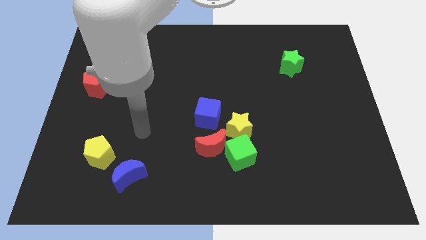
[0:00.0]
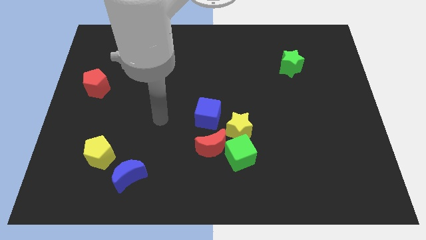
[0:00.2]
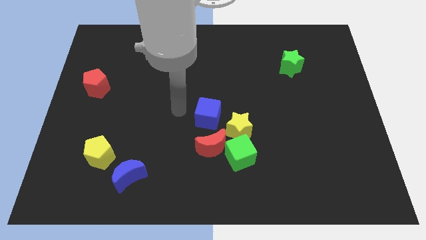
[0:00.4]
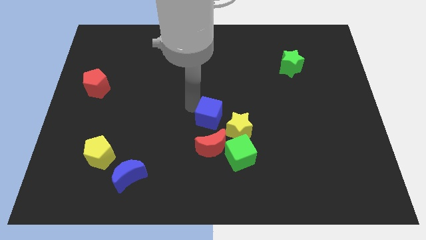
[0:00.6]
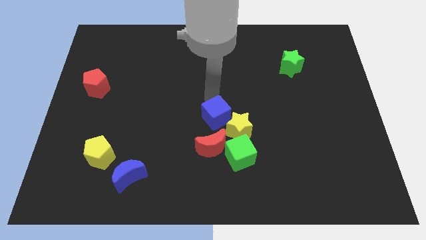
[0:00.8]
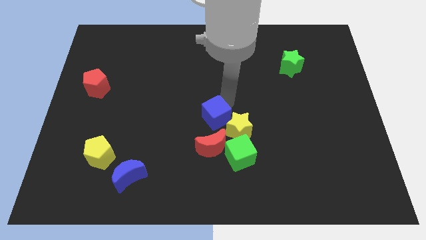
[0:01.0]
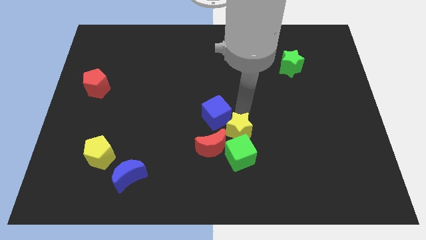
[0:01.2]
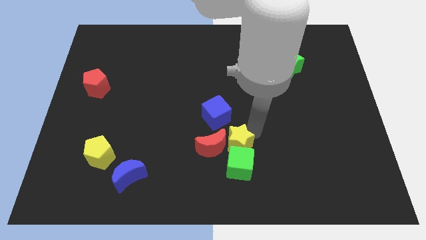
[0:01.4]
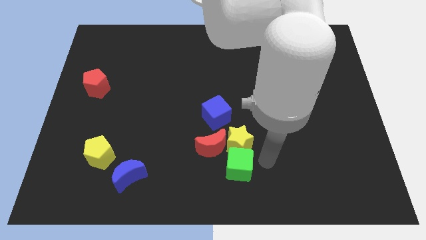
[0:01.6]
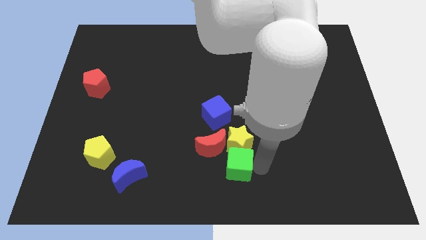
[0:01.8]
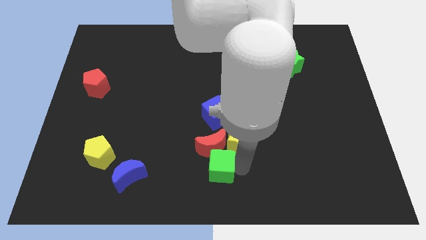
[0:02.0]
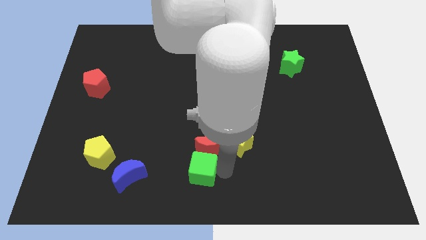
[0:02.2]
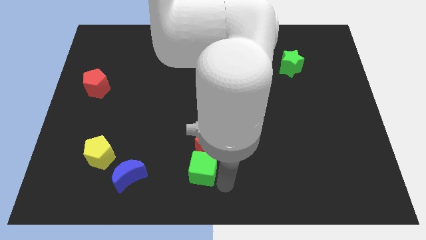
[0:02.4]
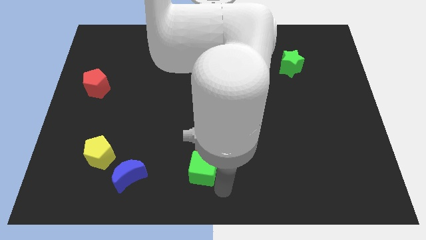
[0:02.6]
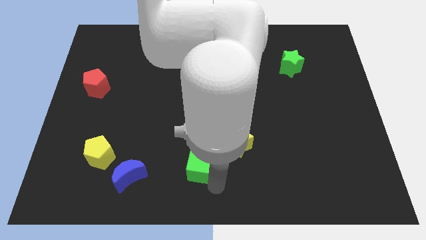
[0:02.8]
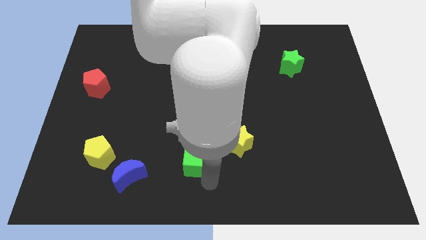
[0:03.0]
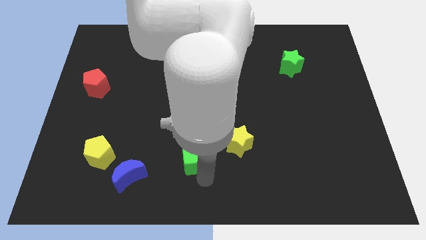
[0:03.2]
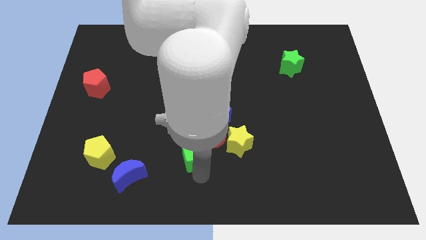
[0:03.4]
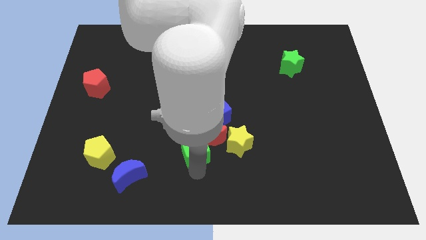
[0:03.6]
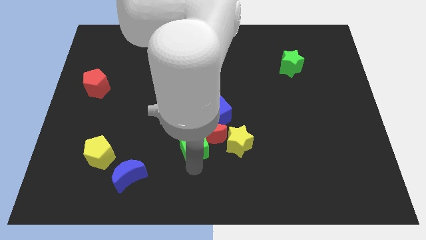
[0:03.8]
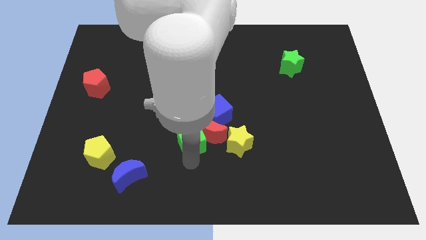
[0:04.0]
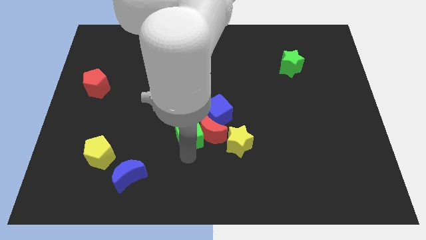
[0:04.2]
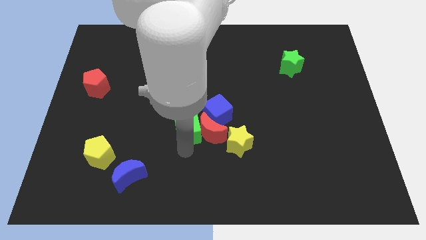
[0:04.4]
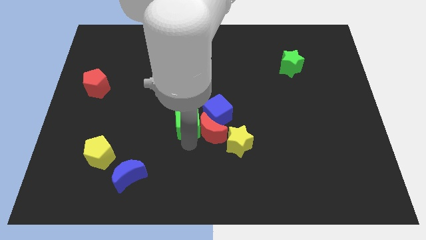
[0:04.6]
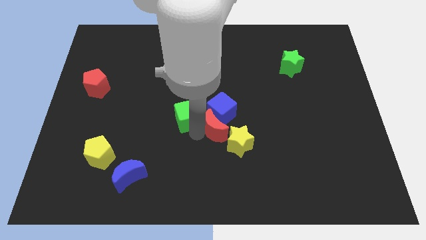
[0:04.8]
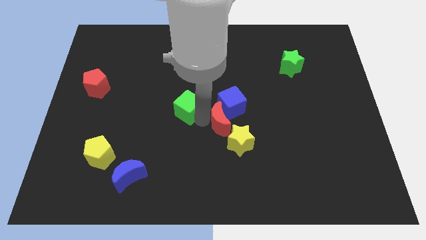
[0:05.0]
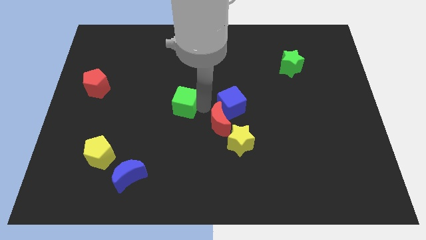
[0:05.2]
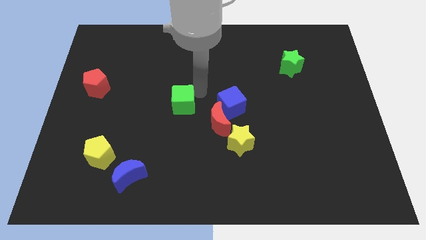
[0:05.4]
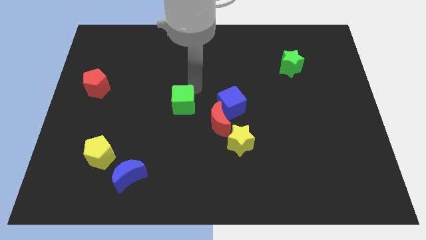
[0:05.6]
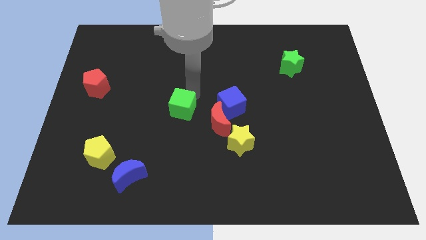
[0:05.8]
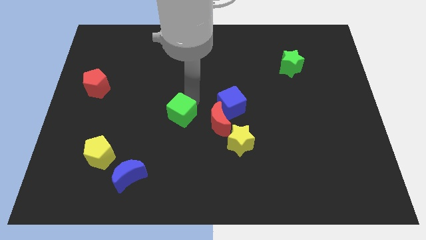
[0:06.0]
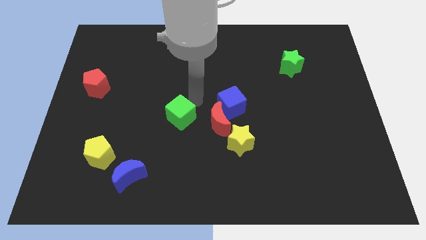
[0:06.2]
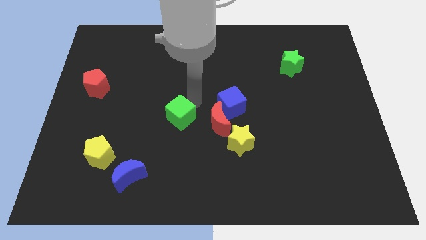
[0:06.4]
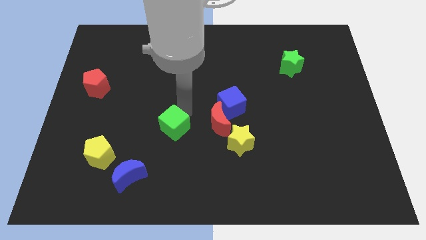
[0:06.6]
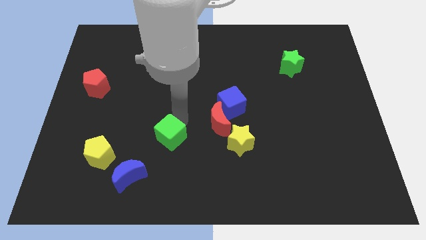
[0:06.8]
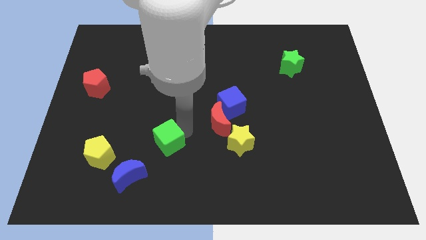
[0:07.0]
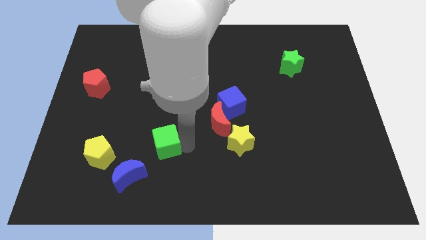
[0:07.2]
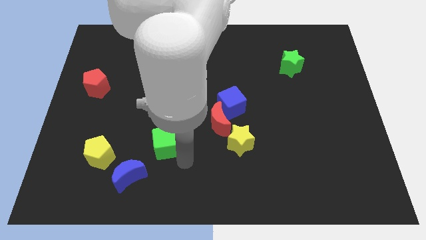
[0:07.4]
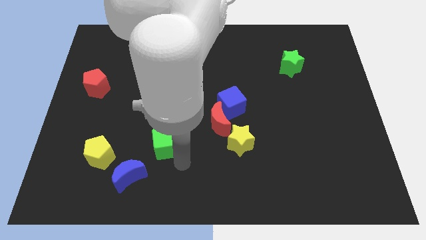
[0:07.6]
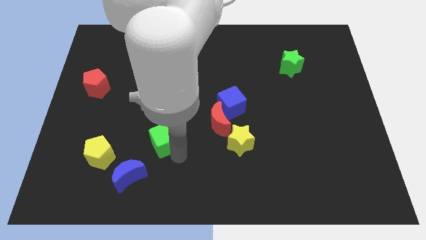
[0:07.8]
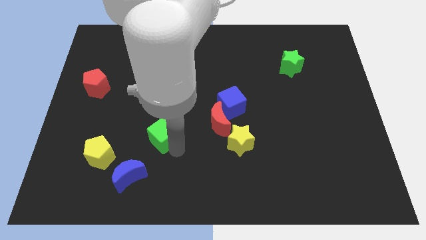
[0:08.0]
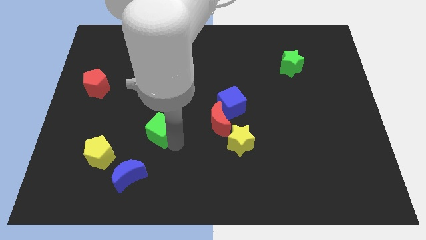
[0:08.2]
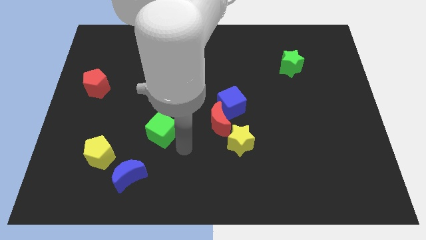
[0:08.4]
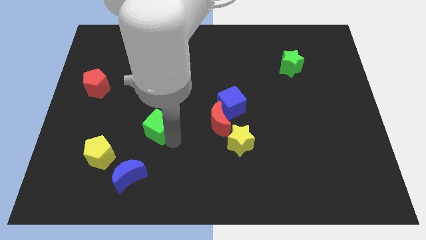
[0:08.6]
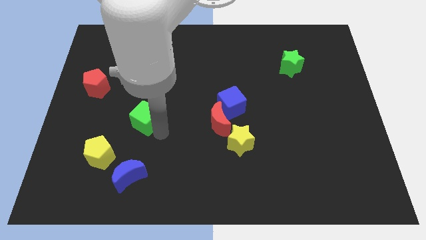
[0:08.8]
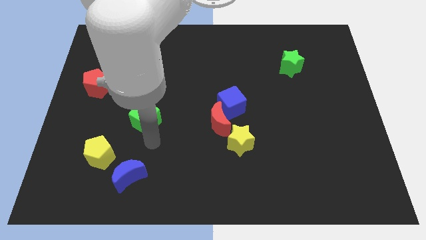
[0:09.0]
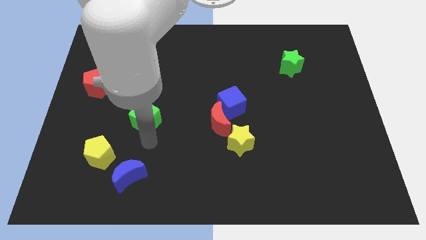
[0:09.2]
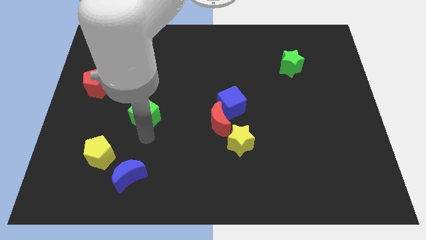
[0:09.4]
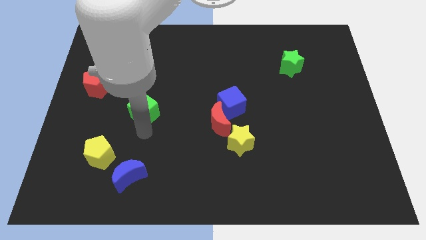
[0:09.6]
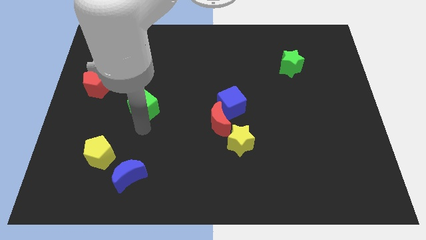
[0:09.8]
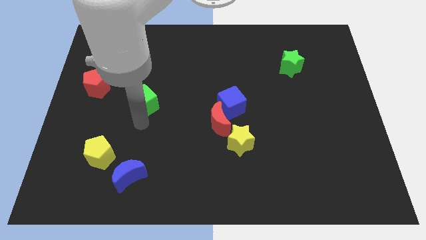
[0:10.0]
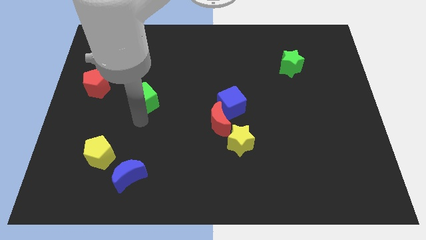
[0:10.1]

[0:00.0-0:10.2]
push the green cube to the right of the red pentagon

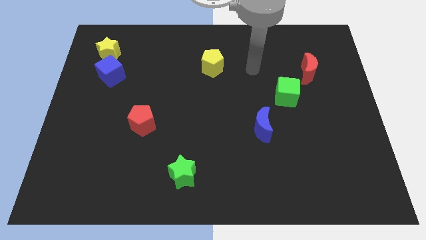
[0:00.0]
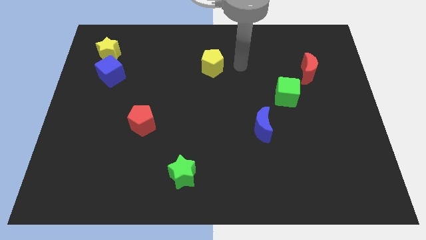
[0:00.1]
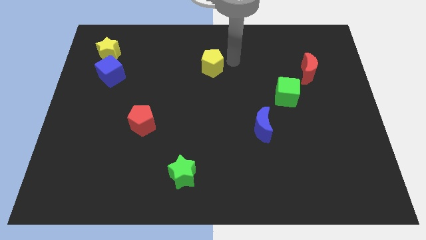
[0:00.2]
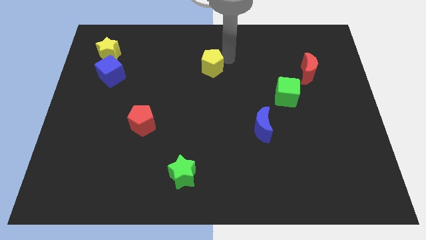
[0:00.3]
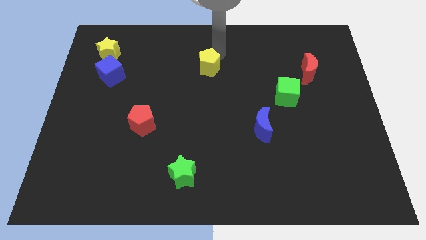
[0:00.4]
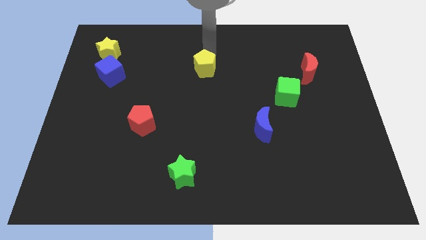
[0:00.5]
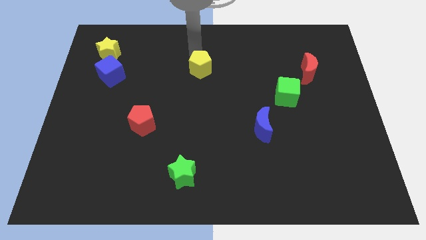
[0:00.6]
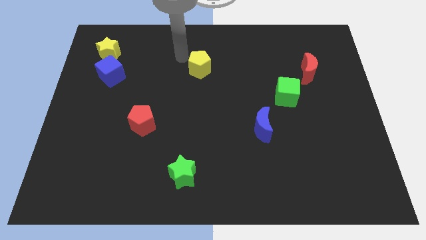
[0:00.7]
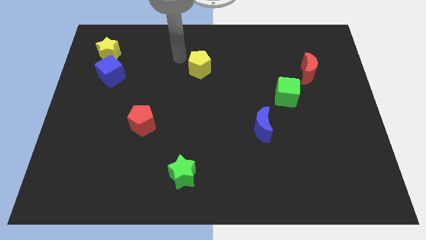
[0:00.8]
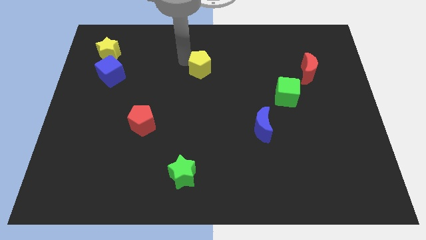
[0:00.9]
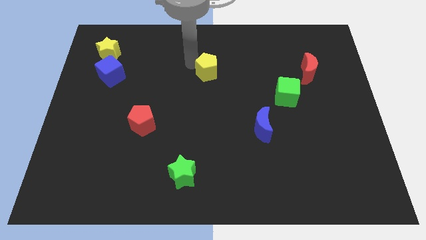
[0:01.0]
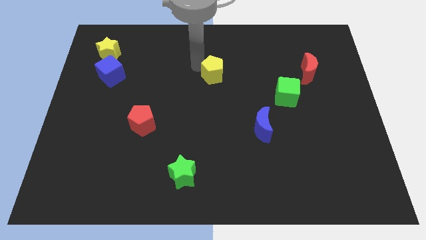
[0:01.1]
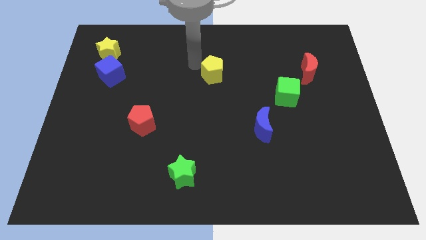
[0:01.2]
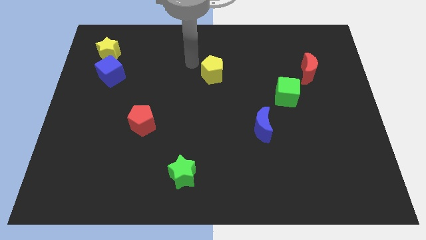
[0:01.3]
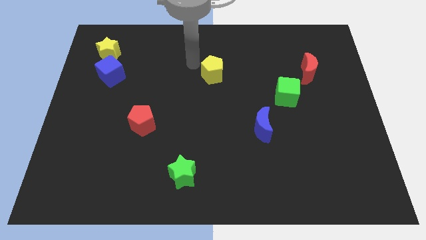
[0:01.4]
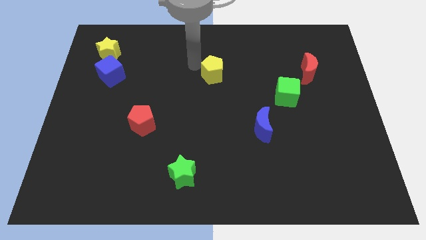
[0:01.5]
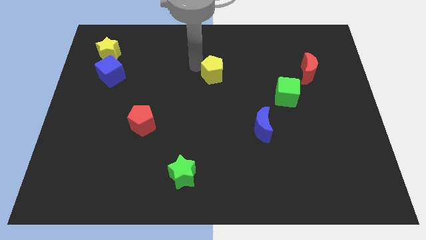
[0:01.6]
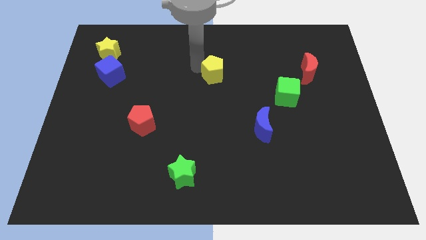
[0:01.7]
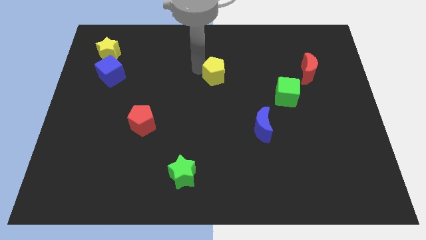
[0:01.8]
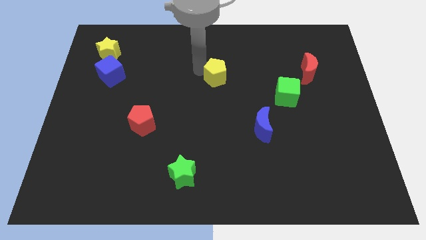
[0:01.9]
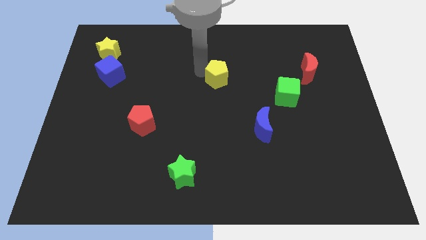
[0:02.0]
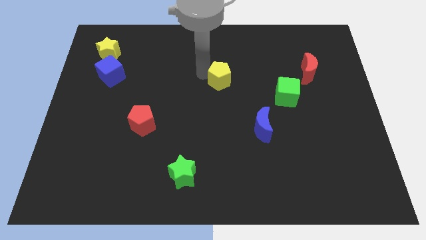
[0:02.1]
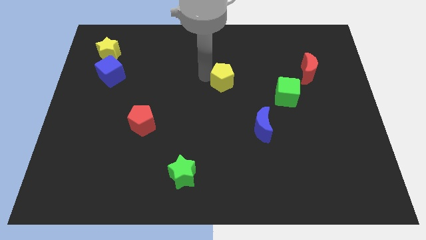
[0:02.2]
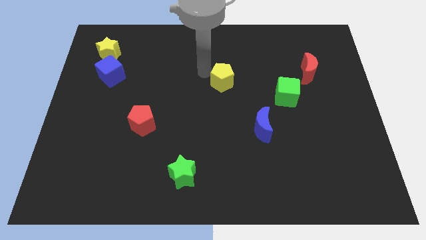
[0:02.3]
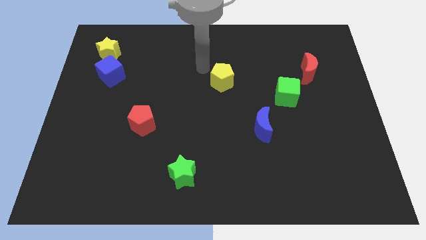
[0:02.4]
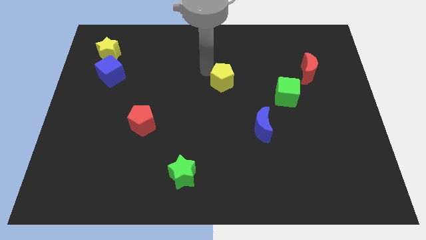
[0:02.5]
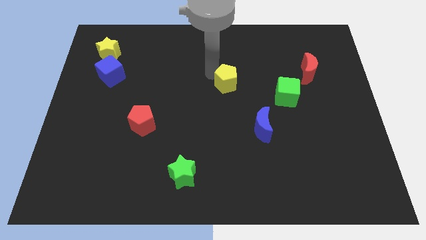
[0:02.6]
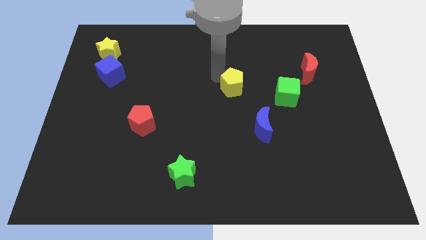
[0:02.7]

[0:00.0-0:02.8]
slide the yellow pentagon just left of the green cube
